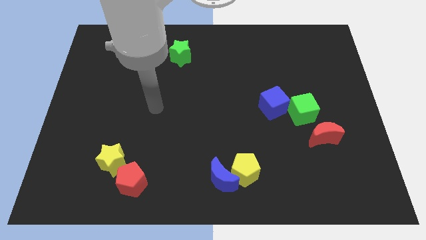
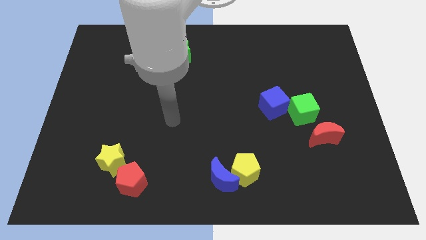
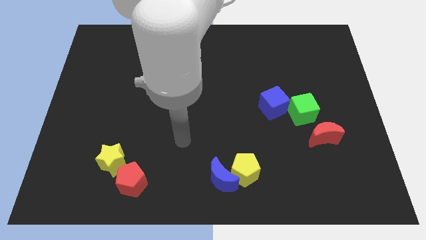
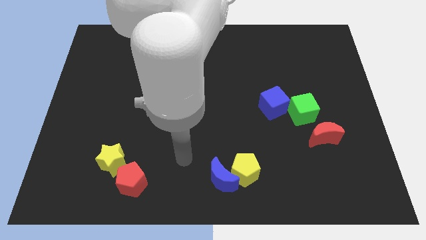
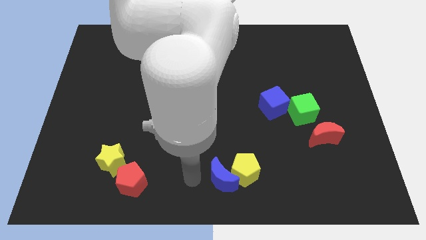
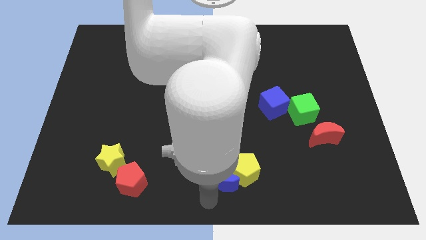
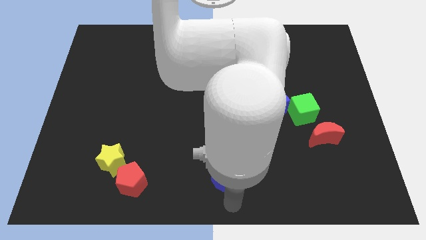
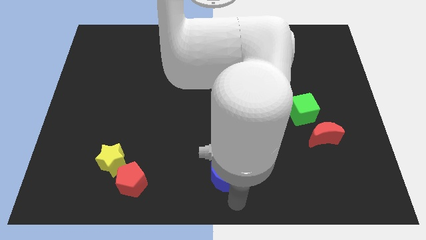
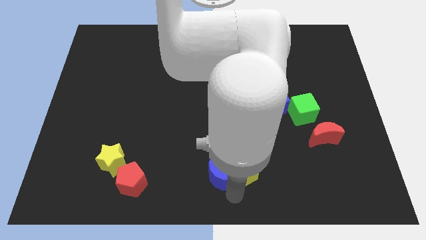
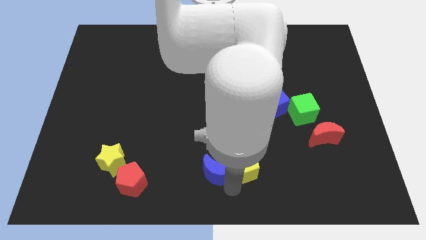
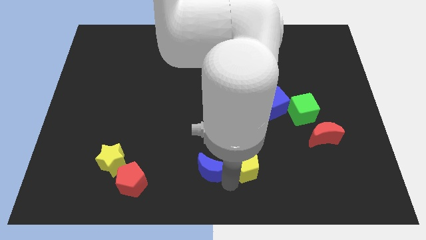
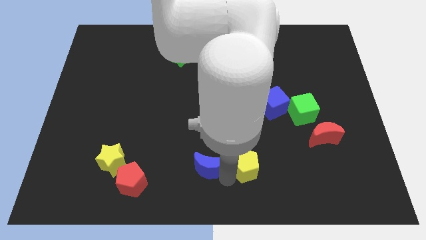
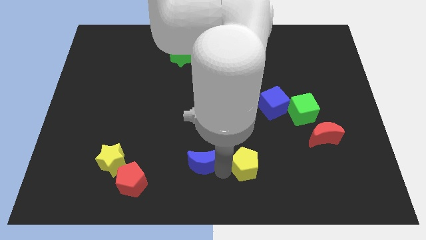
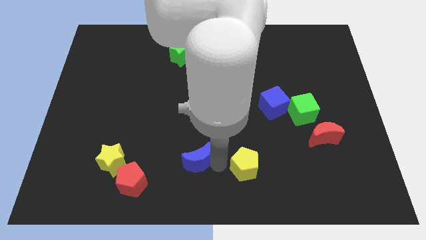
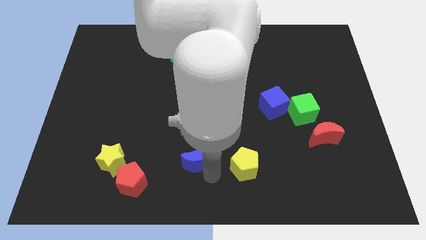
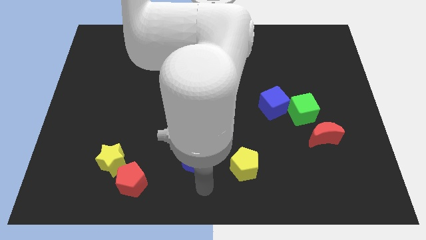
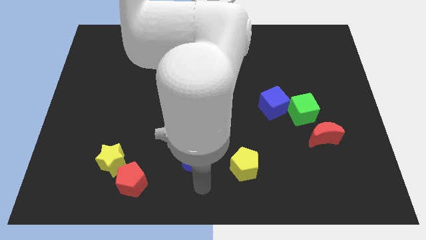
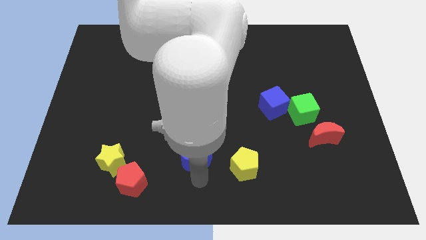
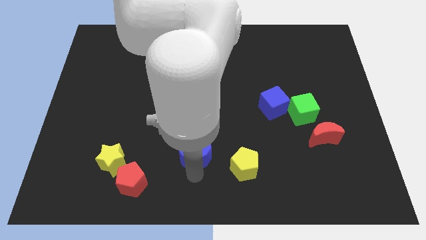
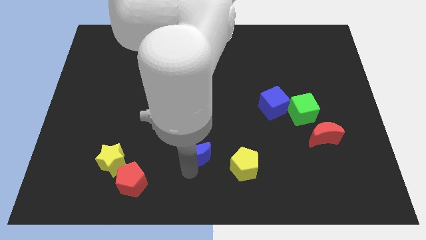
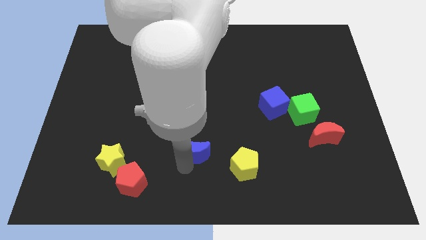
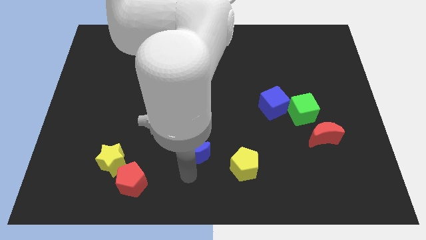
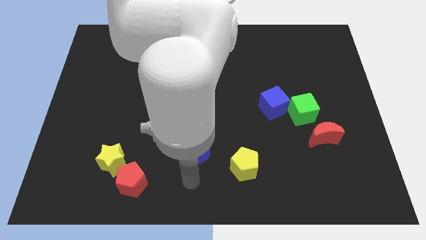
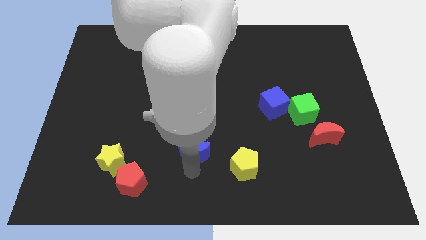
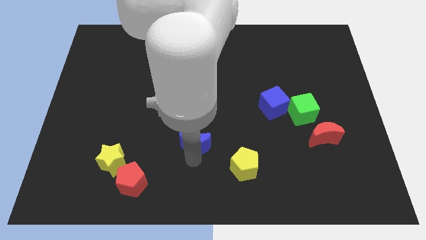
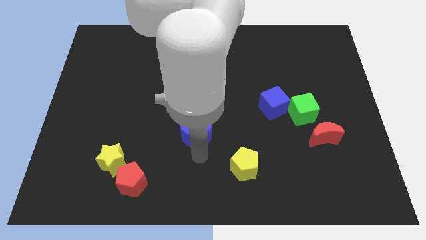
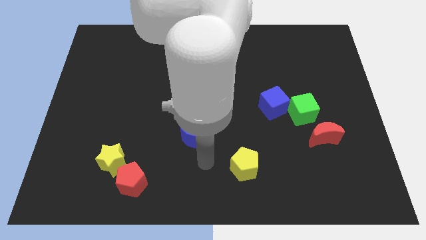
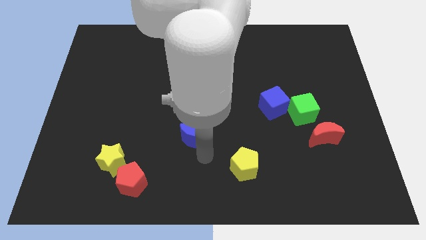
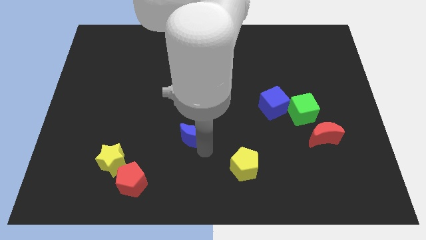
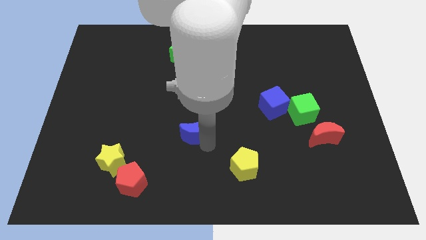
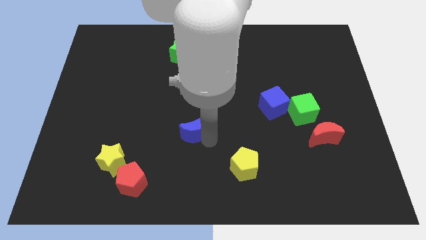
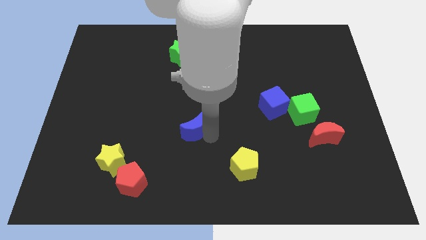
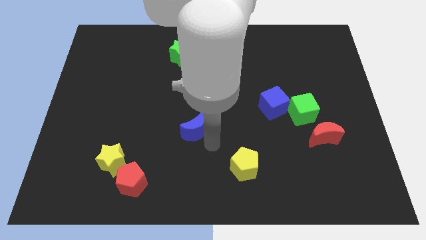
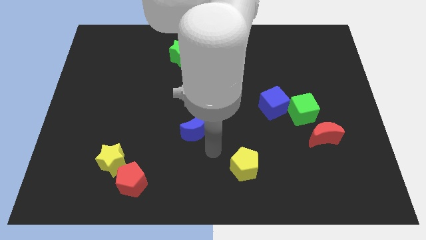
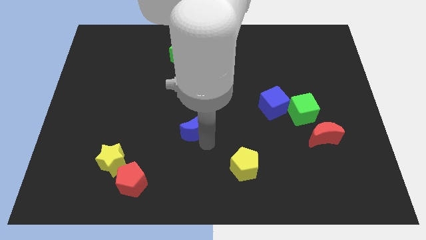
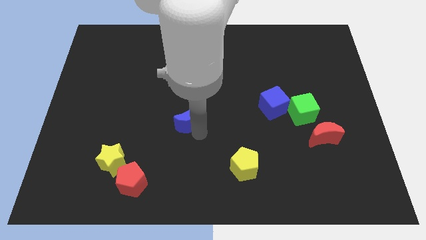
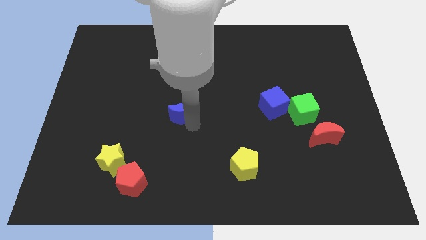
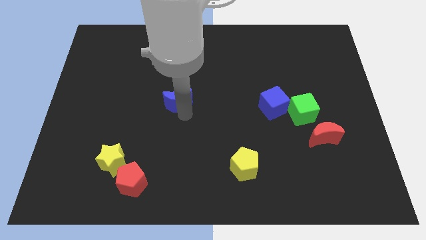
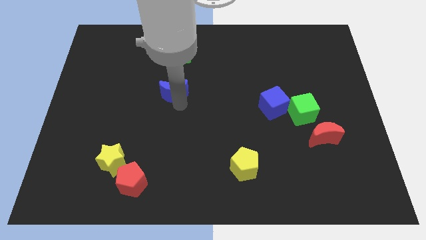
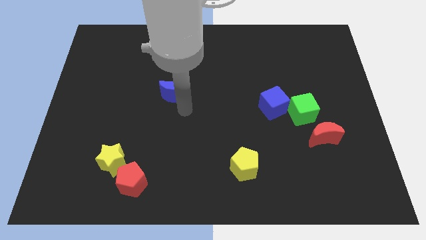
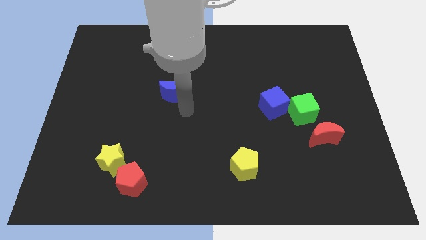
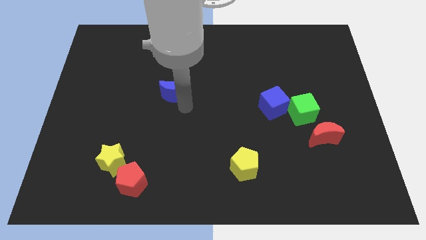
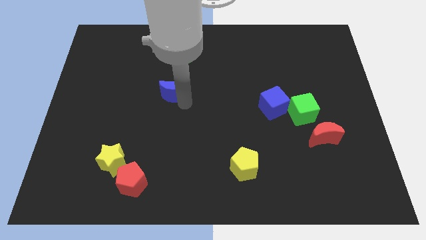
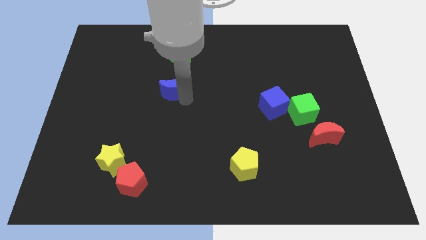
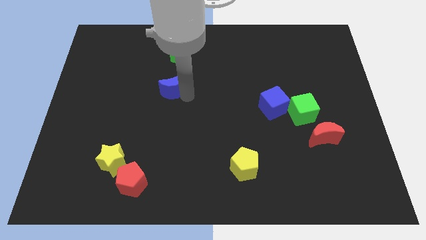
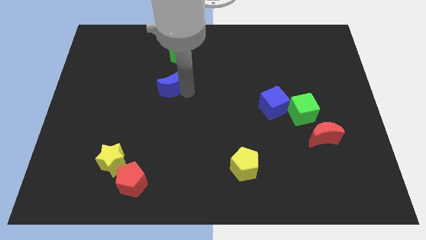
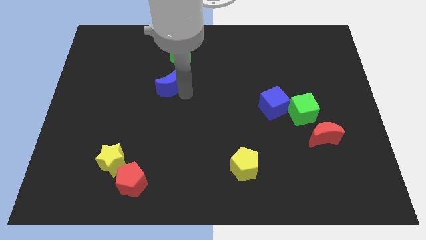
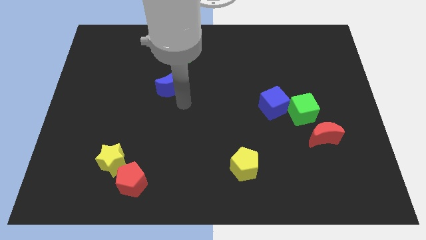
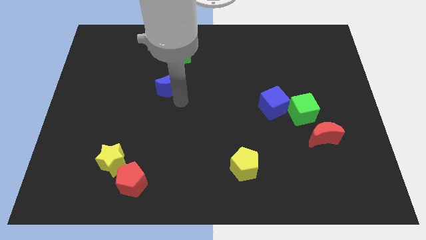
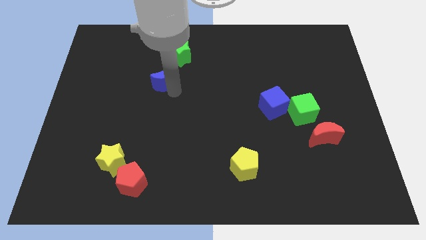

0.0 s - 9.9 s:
push the blue moon diagonally down and to the left of the green star

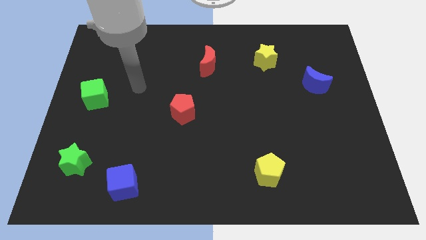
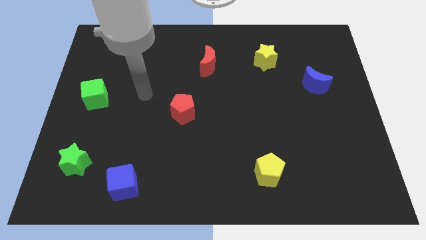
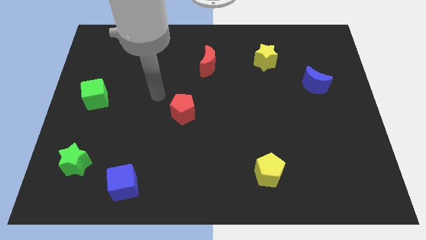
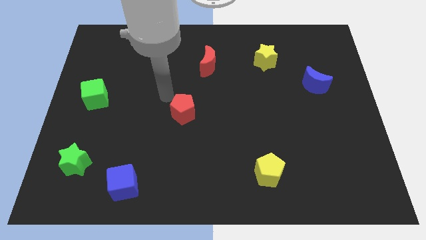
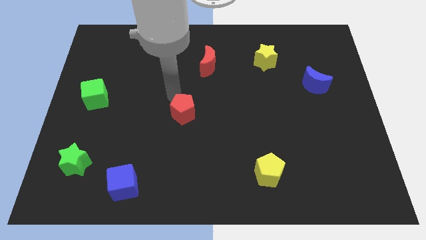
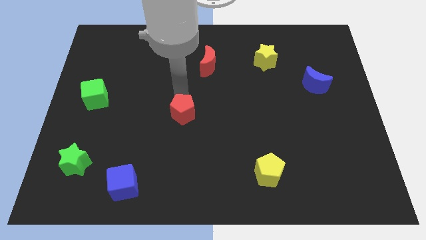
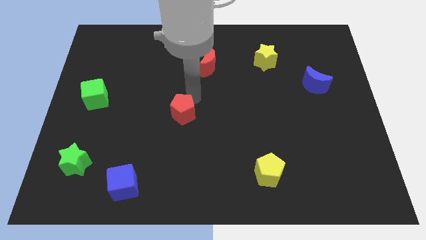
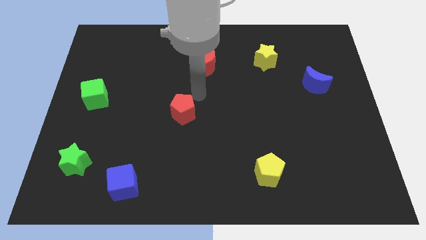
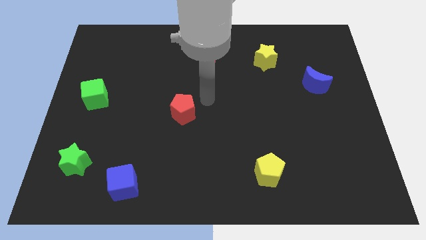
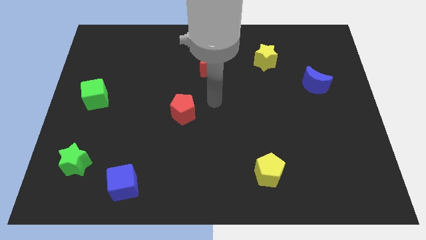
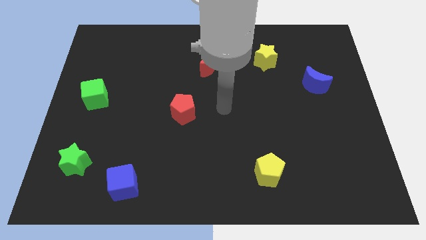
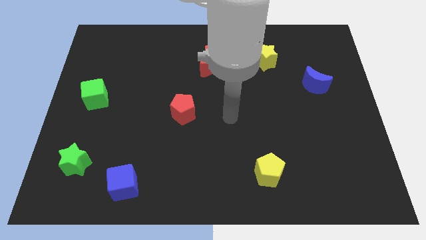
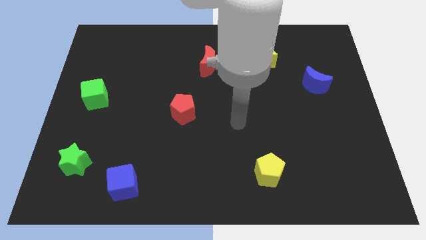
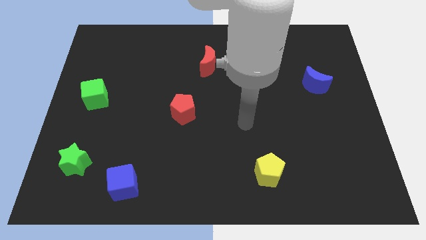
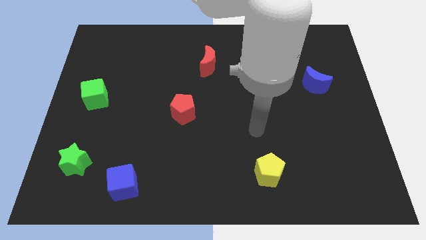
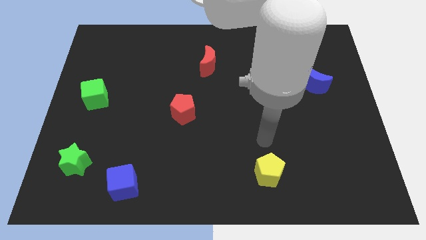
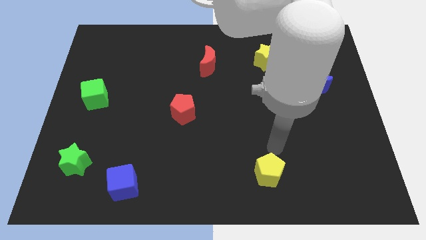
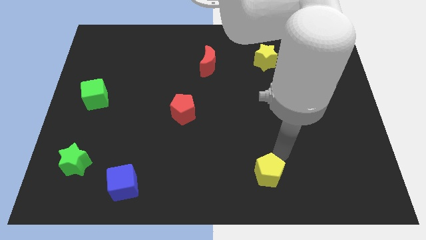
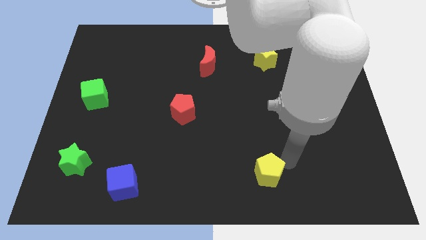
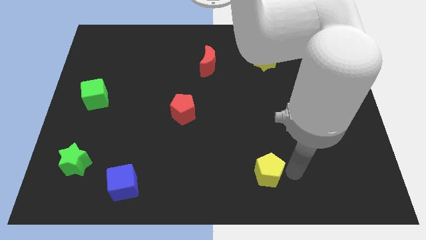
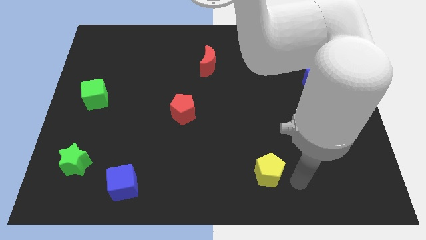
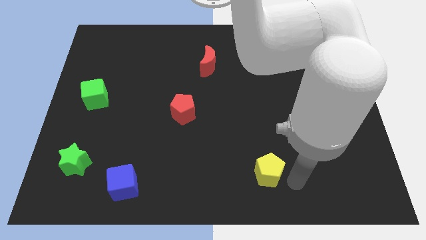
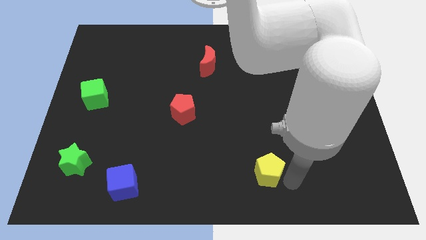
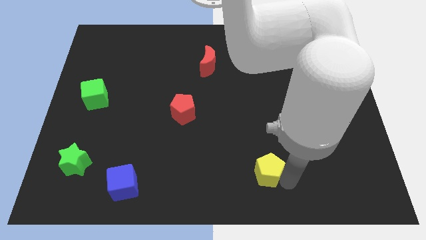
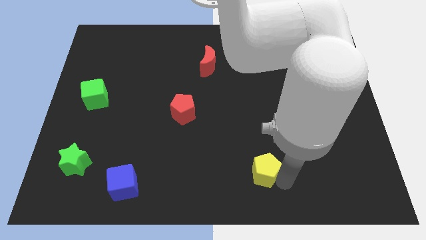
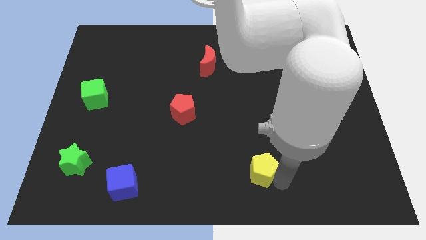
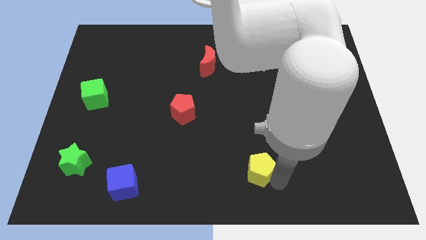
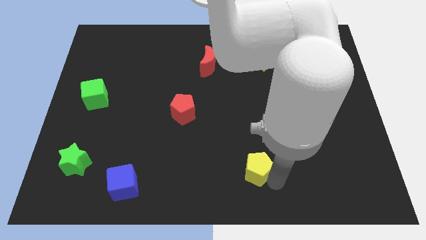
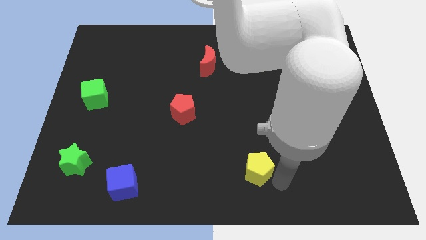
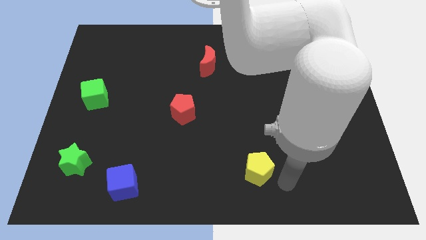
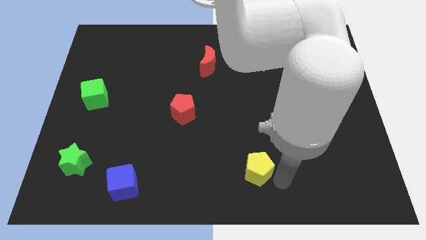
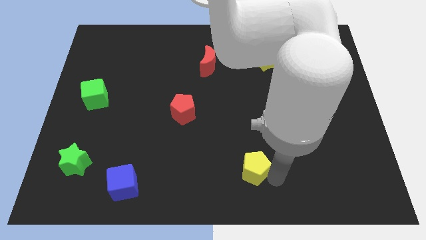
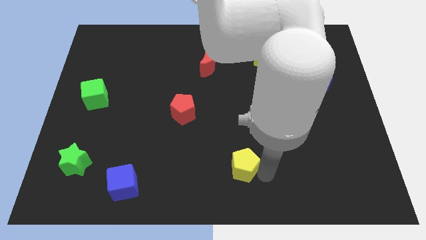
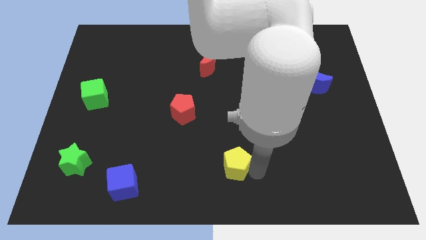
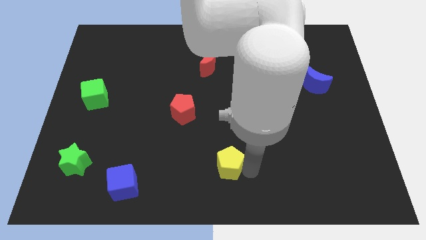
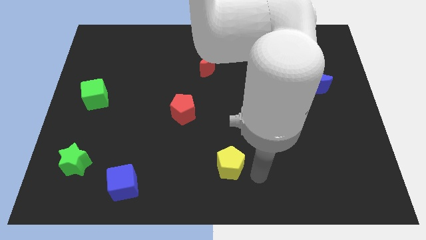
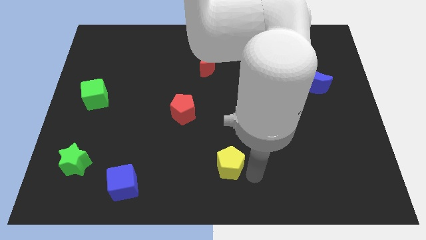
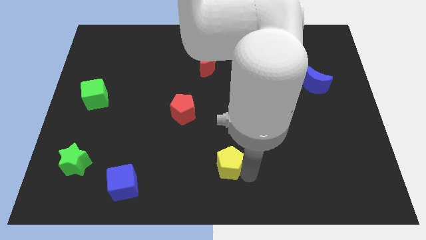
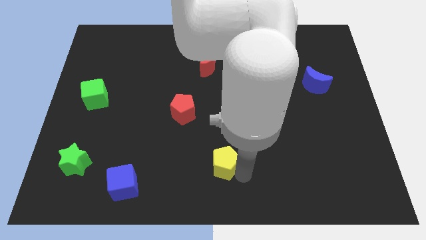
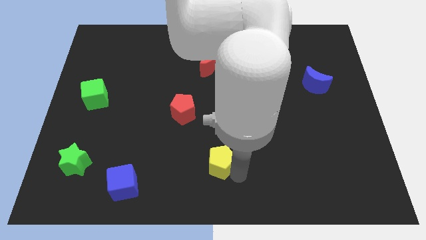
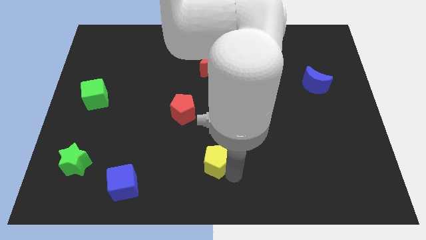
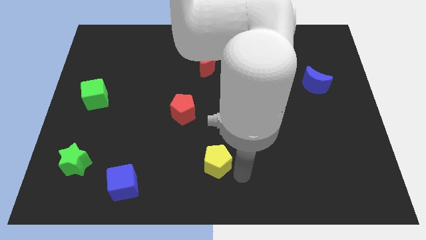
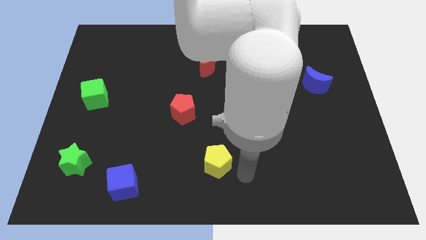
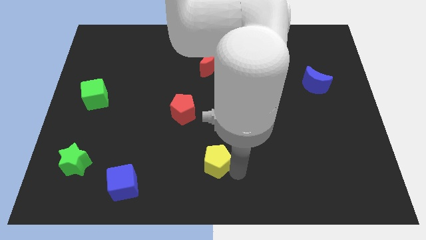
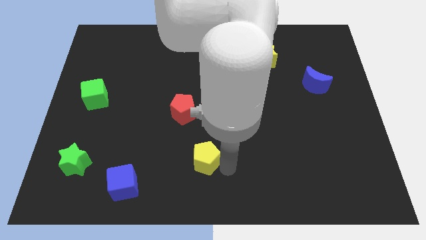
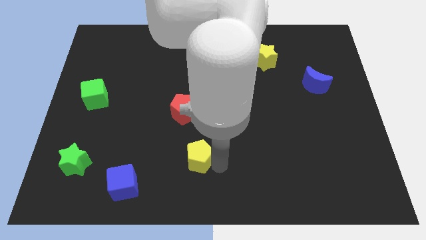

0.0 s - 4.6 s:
put the yellow pentagon to the bottom of the red pentagon
